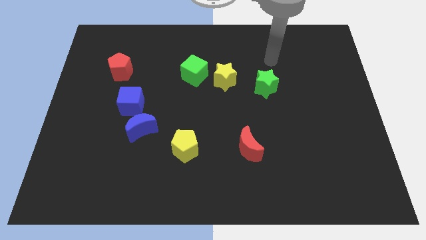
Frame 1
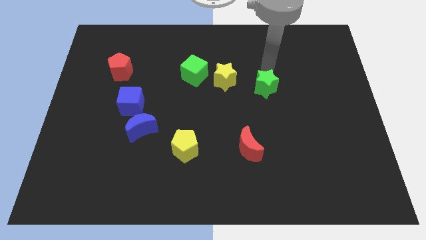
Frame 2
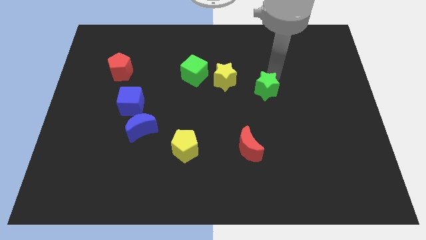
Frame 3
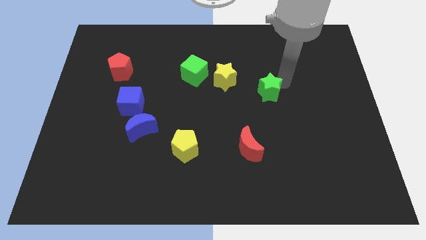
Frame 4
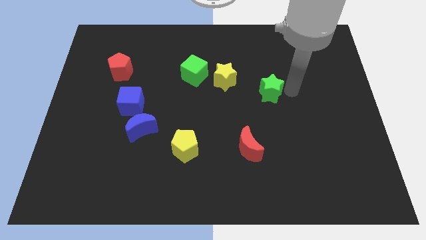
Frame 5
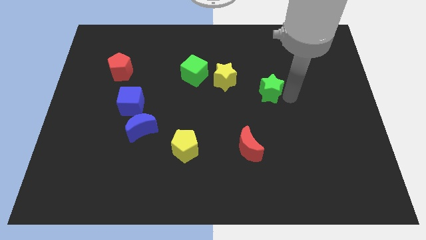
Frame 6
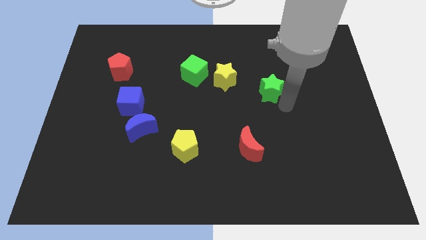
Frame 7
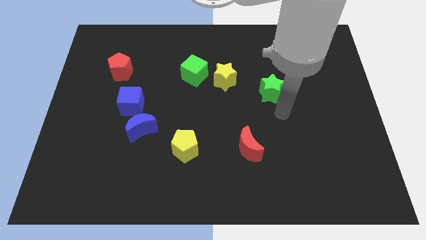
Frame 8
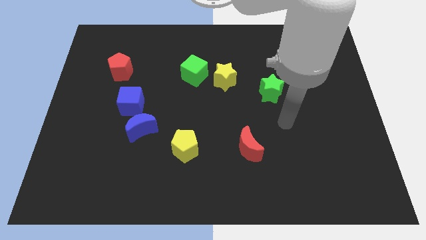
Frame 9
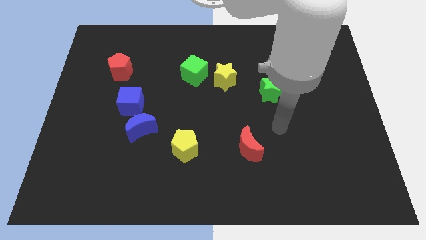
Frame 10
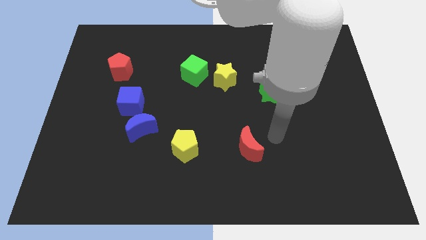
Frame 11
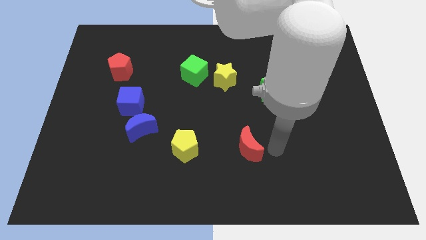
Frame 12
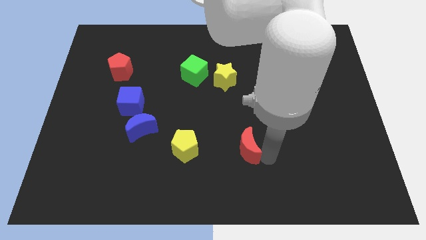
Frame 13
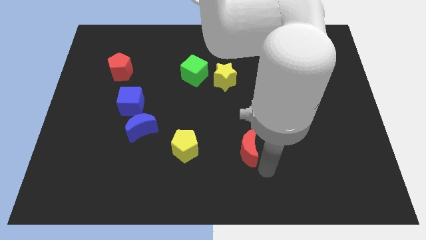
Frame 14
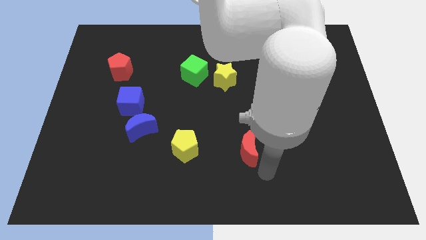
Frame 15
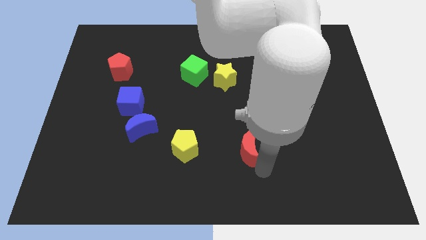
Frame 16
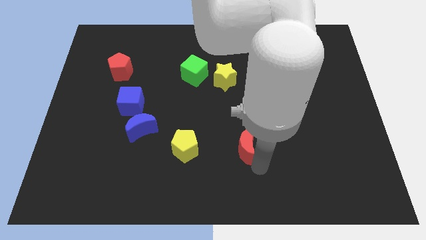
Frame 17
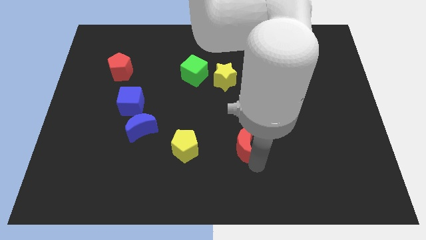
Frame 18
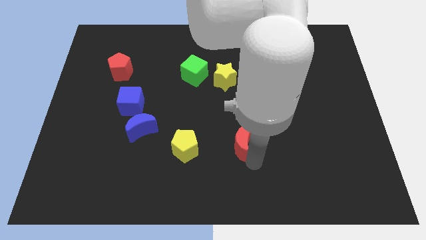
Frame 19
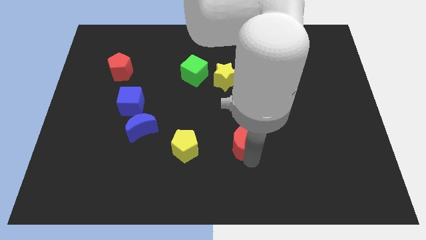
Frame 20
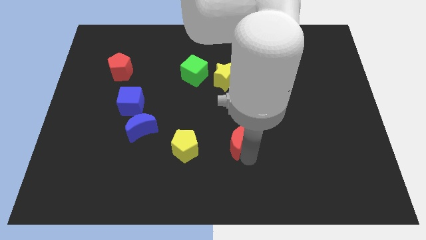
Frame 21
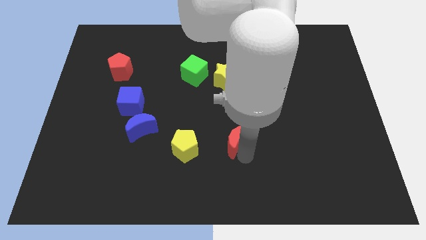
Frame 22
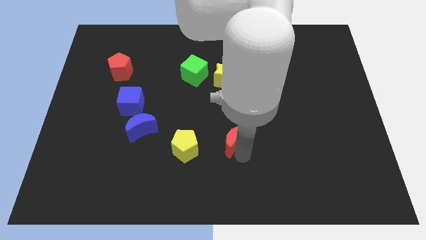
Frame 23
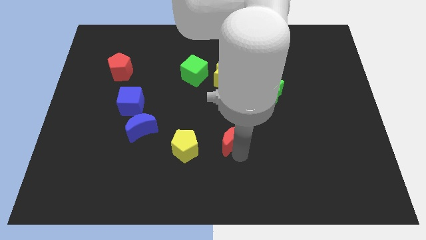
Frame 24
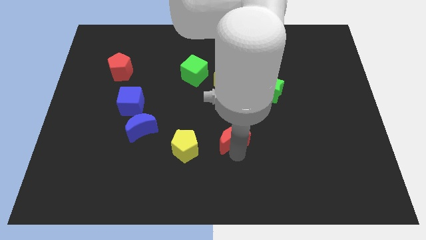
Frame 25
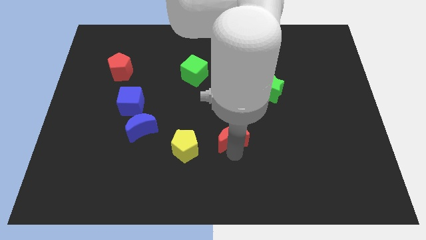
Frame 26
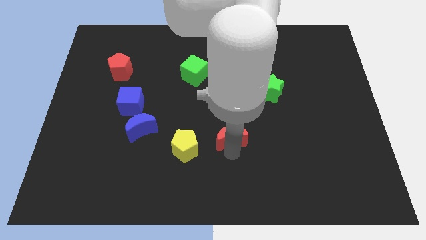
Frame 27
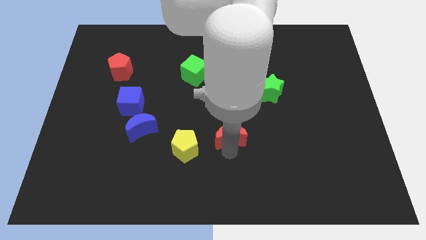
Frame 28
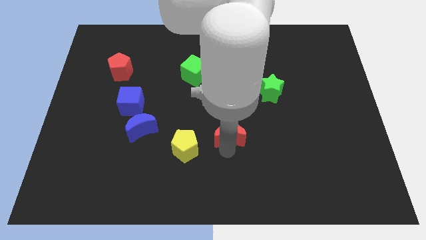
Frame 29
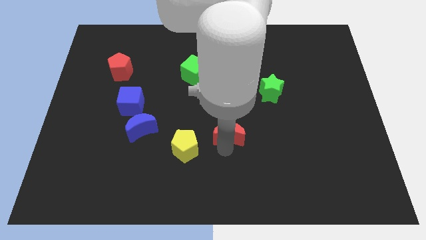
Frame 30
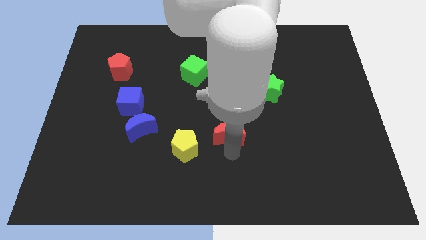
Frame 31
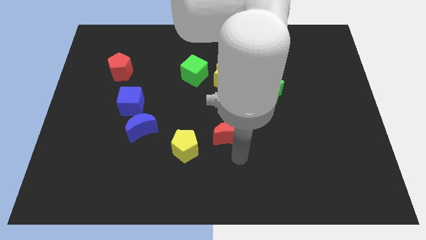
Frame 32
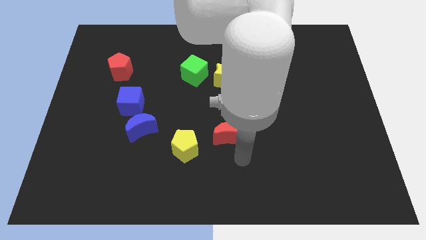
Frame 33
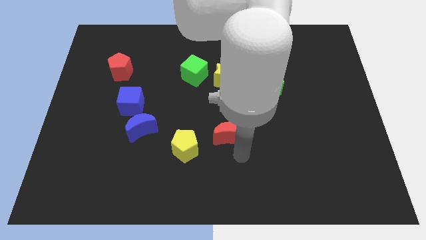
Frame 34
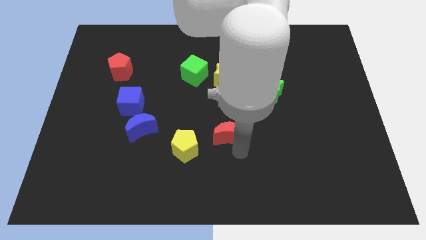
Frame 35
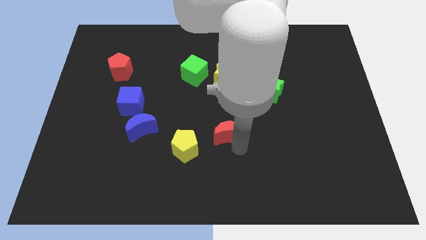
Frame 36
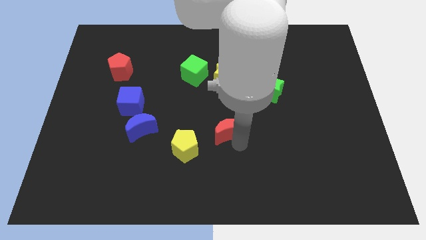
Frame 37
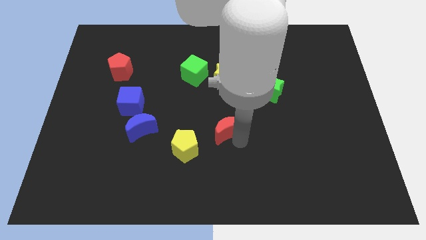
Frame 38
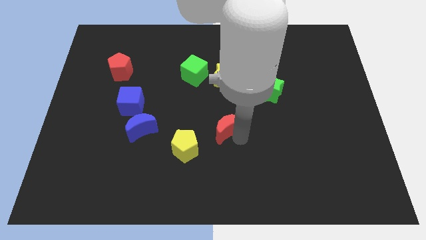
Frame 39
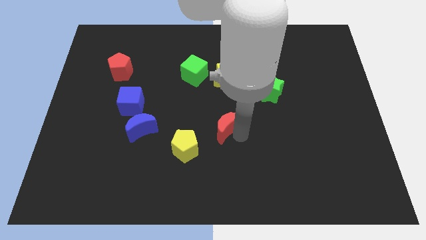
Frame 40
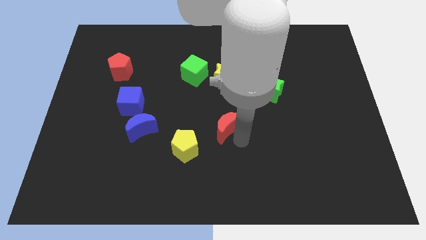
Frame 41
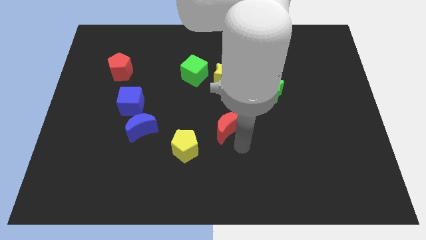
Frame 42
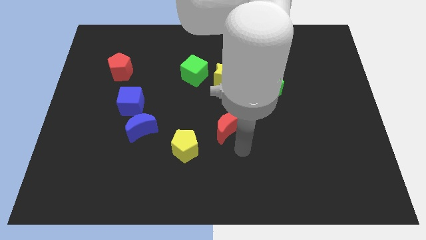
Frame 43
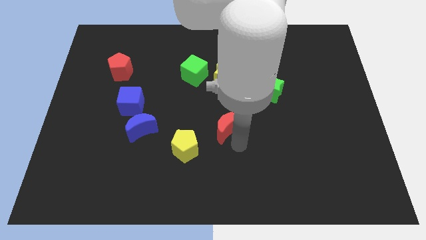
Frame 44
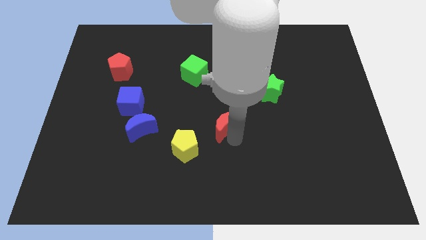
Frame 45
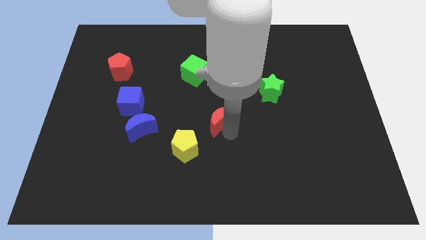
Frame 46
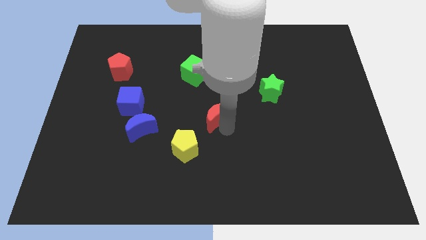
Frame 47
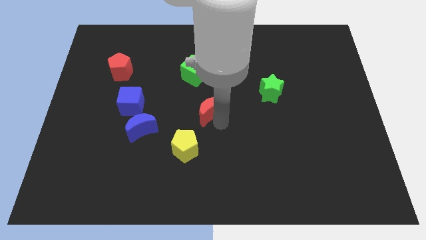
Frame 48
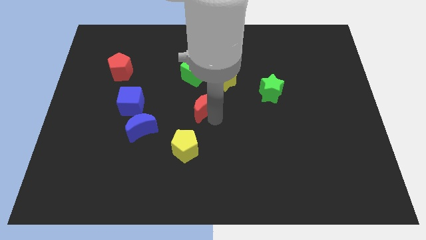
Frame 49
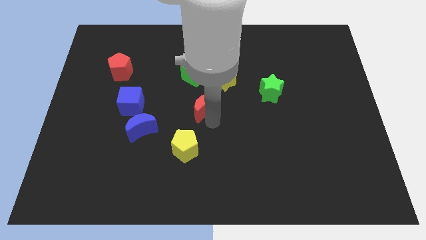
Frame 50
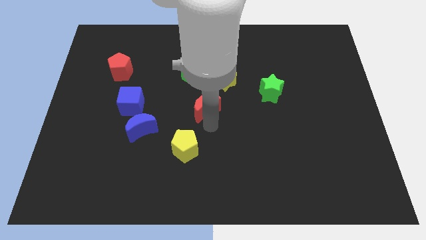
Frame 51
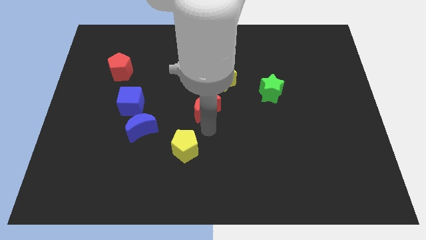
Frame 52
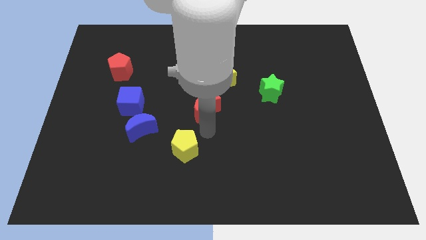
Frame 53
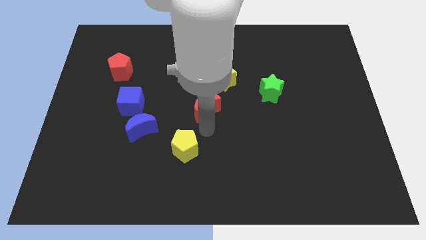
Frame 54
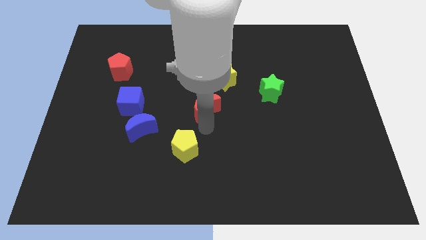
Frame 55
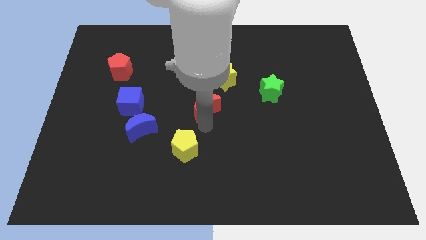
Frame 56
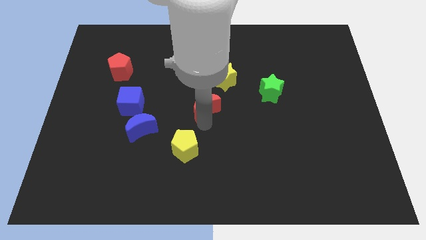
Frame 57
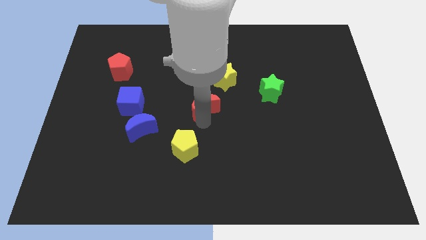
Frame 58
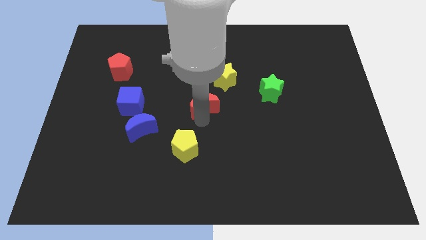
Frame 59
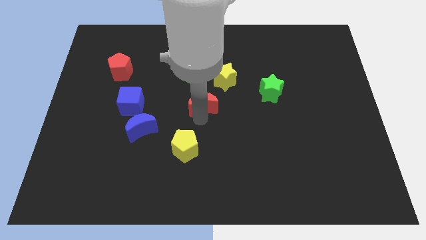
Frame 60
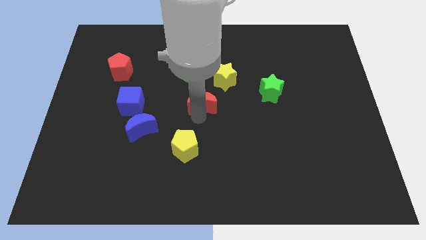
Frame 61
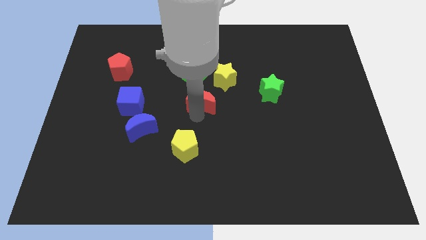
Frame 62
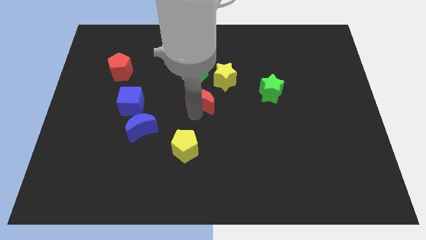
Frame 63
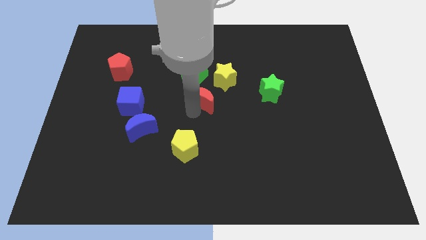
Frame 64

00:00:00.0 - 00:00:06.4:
move the red moon to the bottom right of the green cube

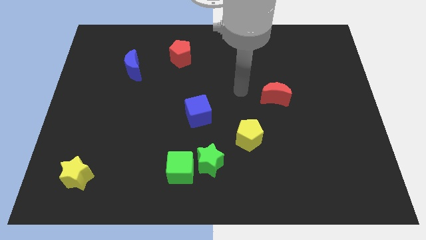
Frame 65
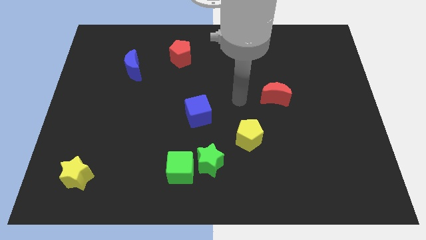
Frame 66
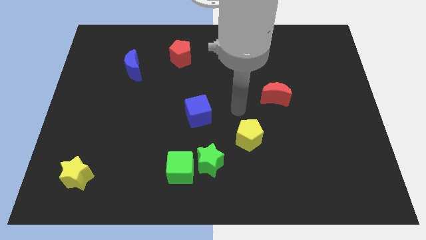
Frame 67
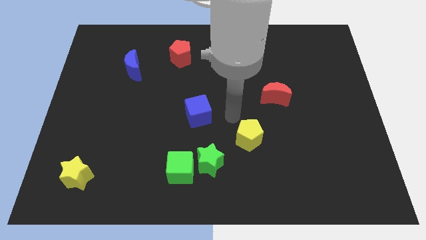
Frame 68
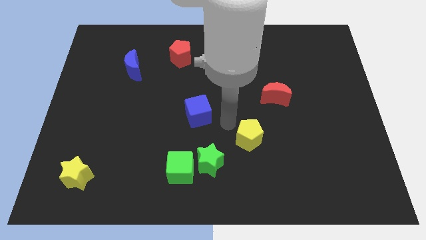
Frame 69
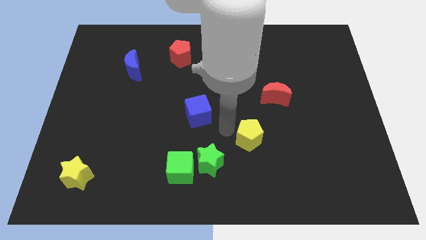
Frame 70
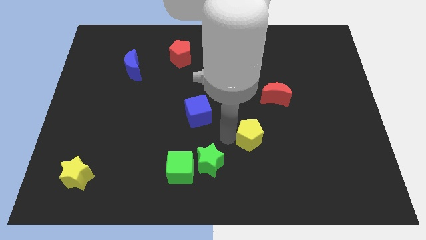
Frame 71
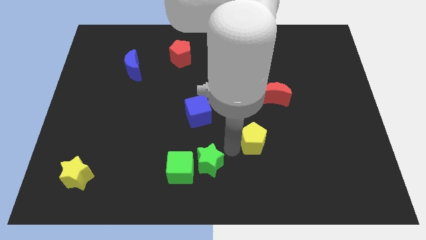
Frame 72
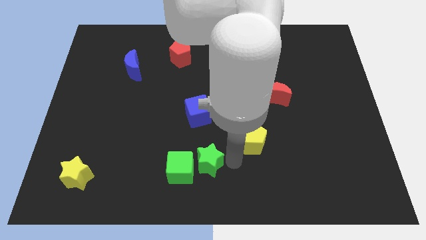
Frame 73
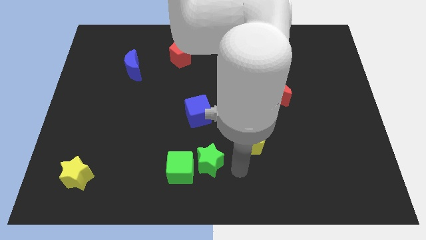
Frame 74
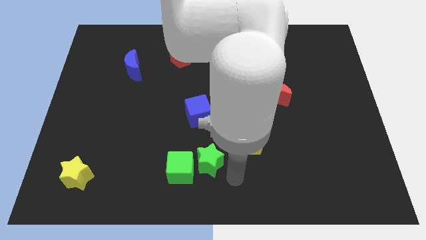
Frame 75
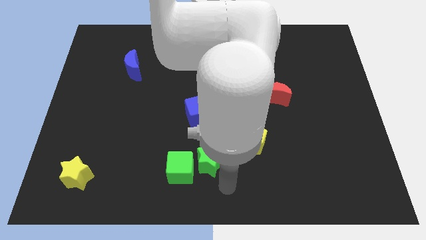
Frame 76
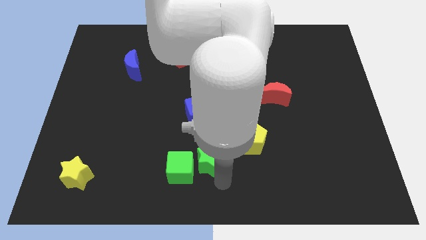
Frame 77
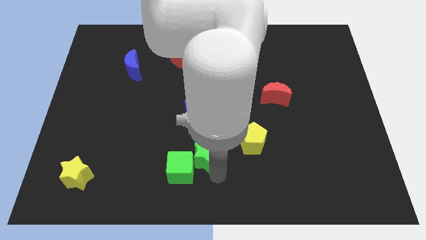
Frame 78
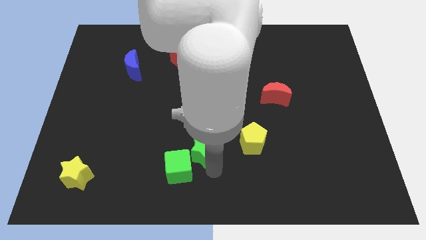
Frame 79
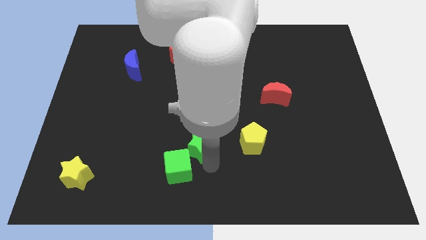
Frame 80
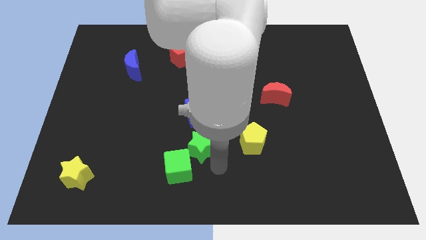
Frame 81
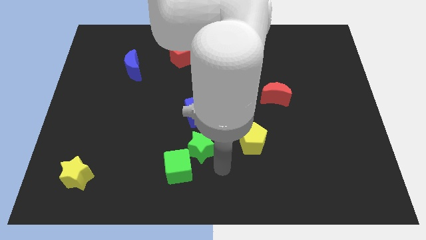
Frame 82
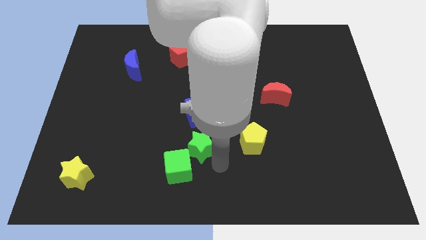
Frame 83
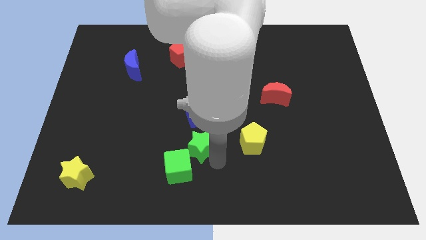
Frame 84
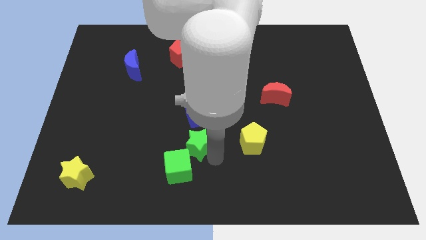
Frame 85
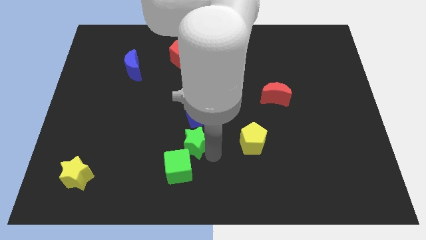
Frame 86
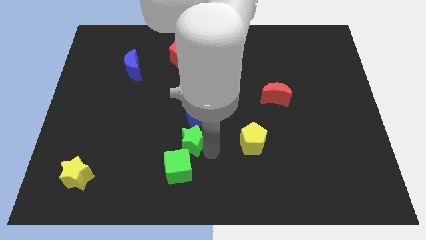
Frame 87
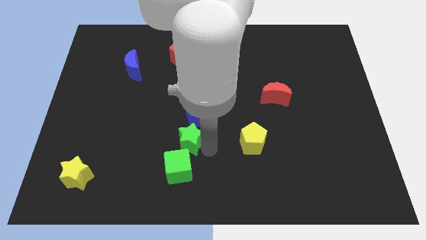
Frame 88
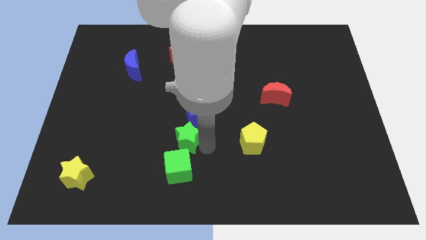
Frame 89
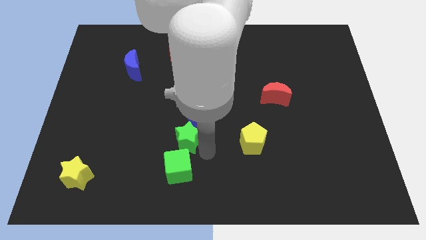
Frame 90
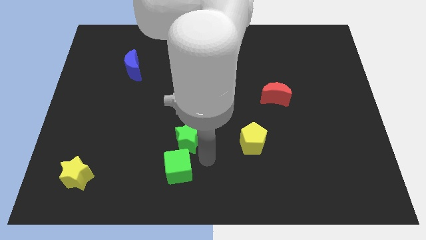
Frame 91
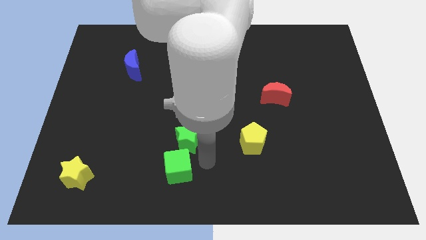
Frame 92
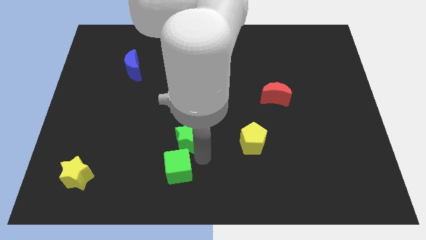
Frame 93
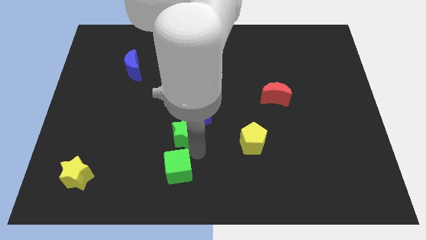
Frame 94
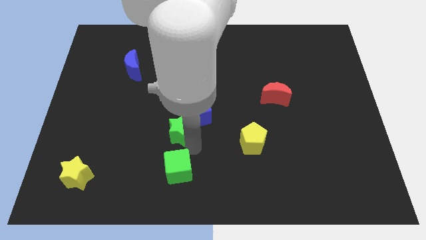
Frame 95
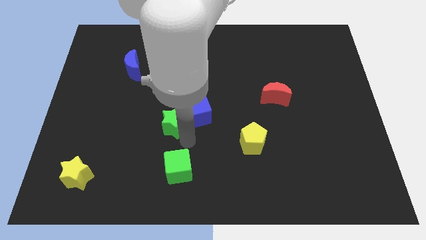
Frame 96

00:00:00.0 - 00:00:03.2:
move the green star just left of the blue cube
